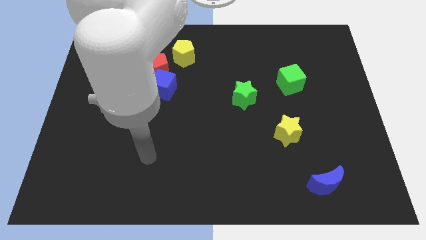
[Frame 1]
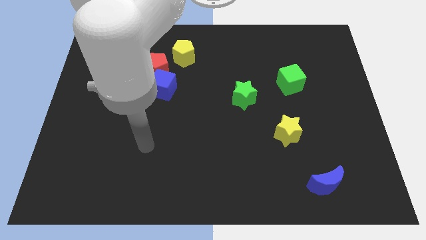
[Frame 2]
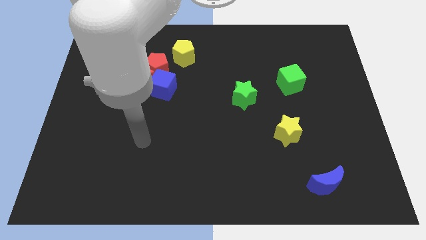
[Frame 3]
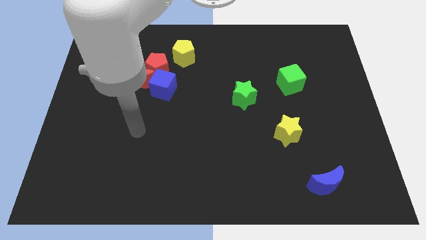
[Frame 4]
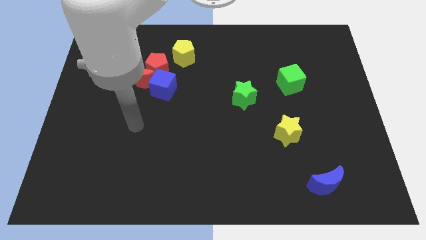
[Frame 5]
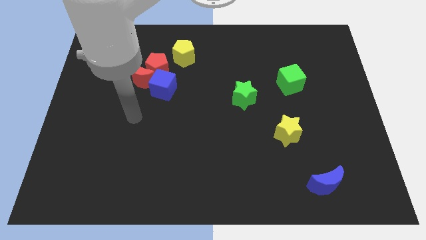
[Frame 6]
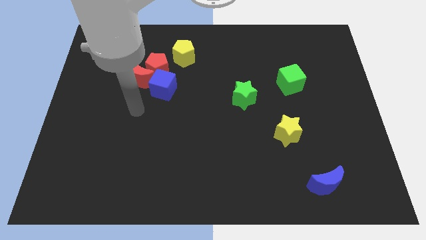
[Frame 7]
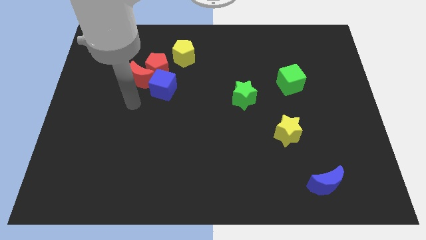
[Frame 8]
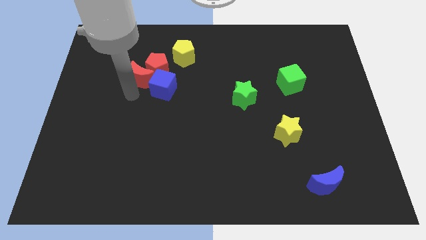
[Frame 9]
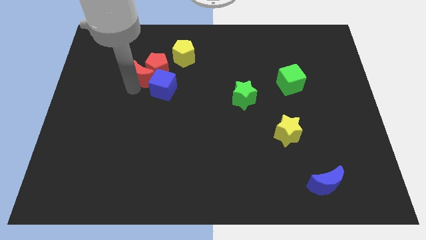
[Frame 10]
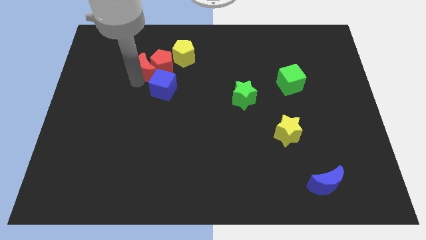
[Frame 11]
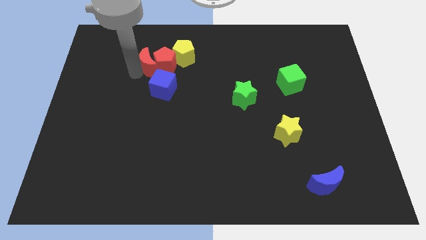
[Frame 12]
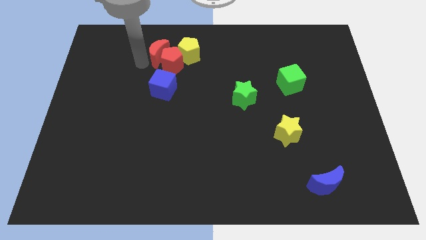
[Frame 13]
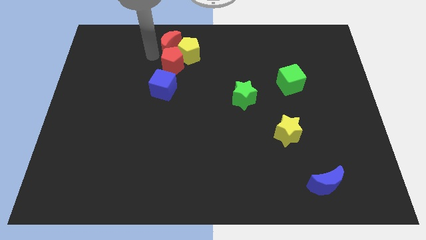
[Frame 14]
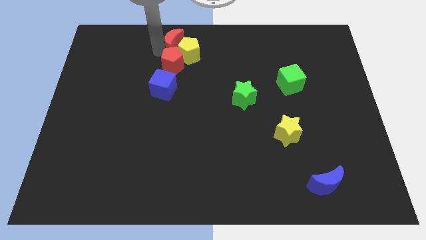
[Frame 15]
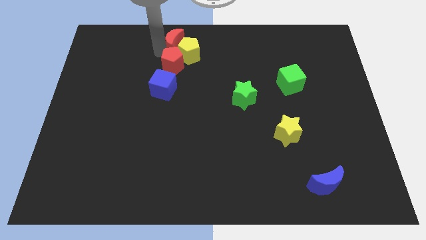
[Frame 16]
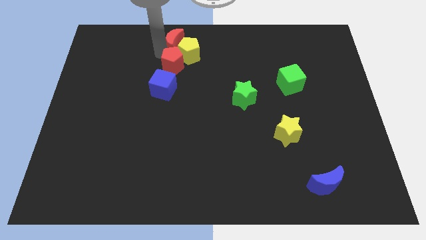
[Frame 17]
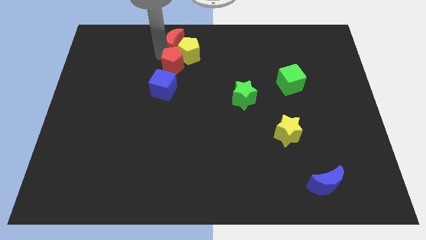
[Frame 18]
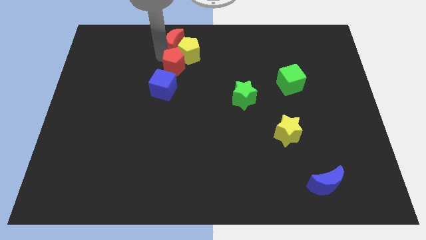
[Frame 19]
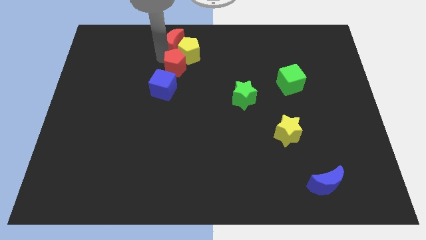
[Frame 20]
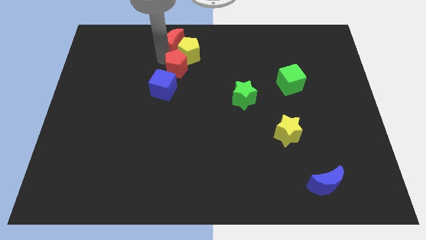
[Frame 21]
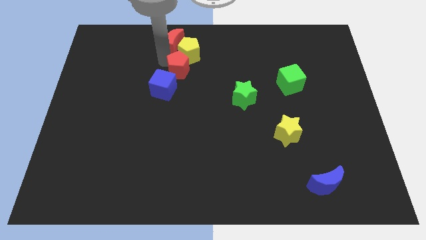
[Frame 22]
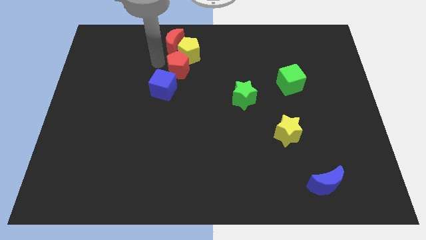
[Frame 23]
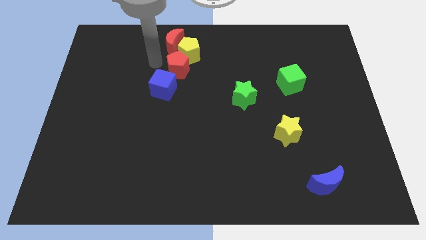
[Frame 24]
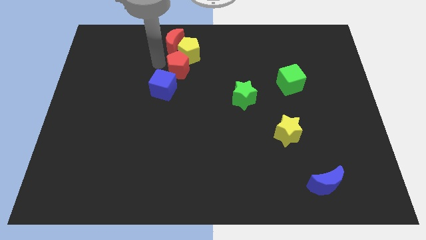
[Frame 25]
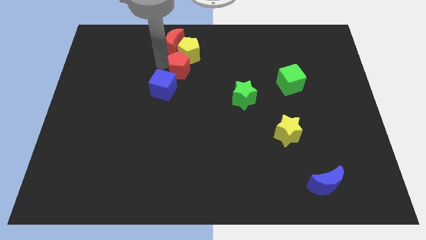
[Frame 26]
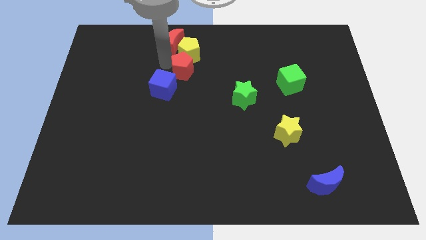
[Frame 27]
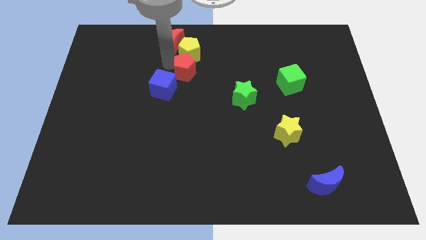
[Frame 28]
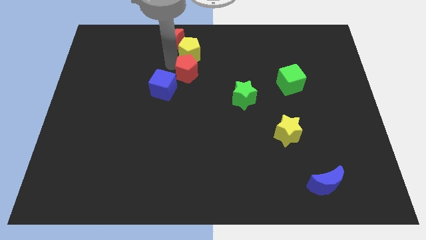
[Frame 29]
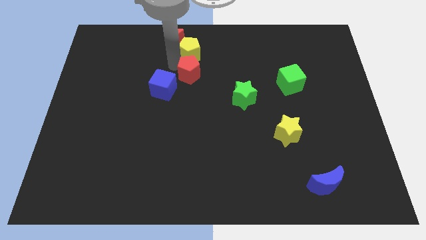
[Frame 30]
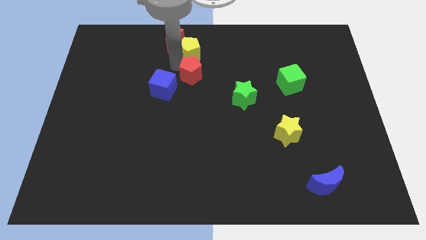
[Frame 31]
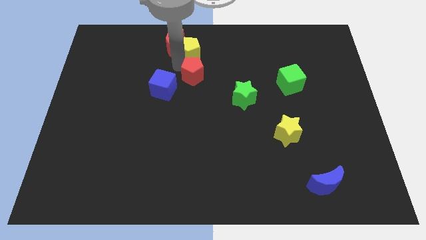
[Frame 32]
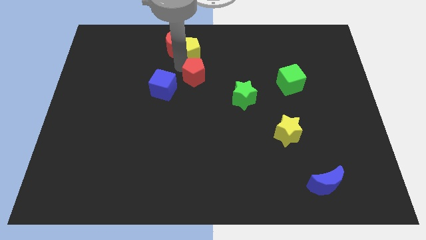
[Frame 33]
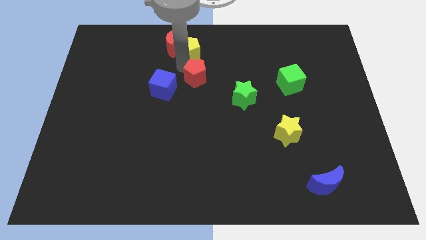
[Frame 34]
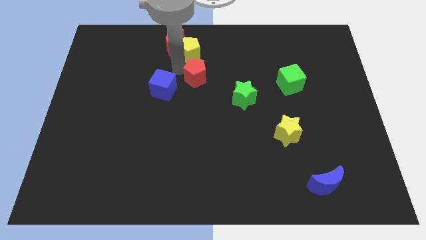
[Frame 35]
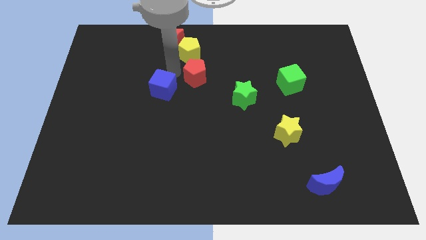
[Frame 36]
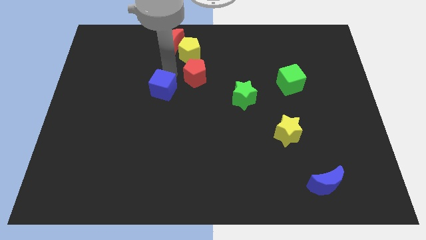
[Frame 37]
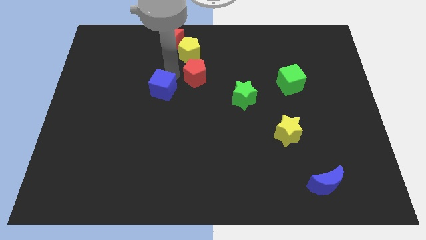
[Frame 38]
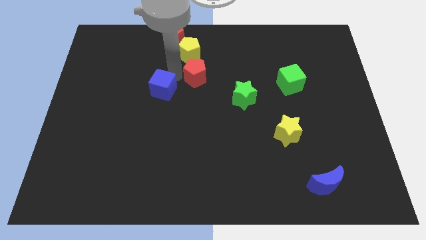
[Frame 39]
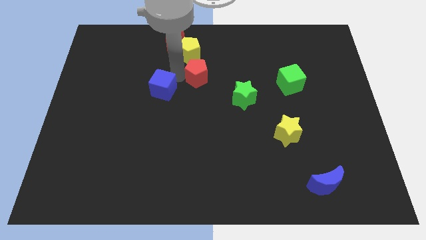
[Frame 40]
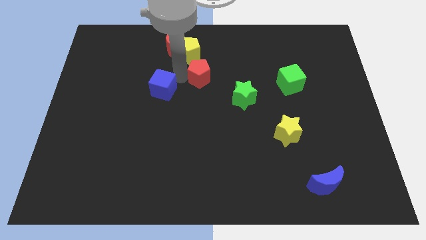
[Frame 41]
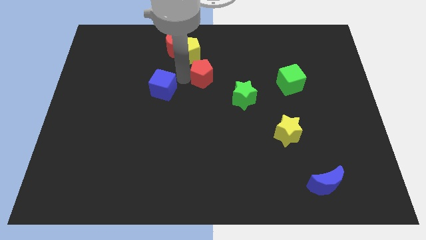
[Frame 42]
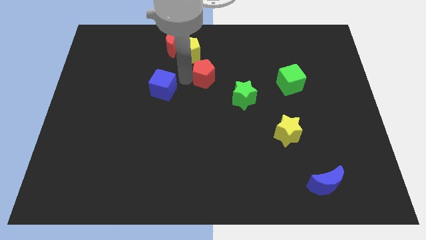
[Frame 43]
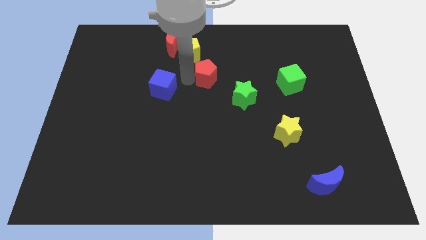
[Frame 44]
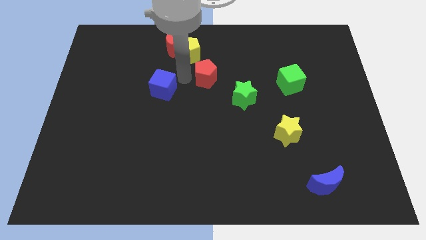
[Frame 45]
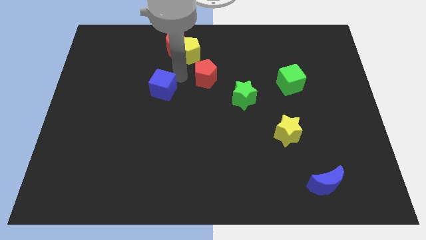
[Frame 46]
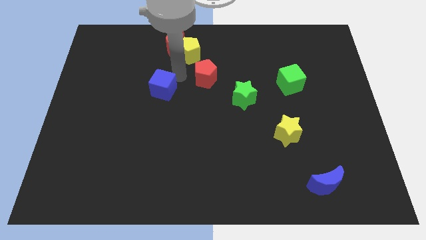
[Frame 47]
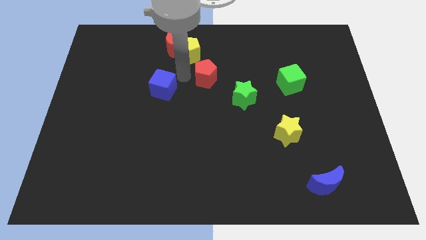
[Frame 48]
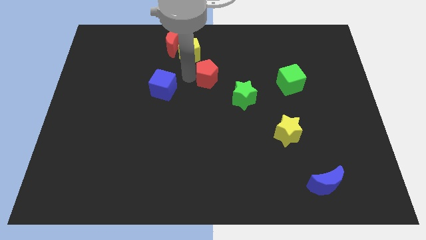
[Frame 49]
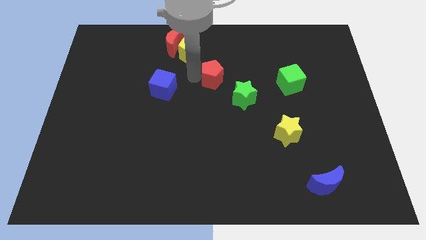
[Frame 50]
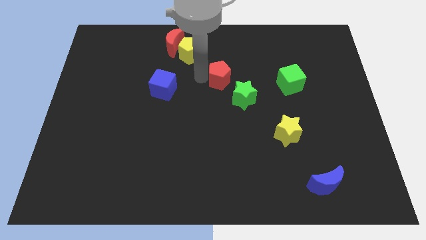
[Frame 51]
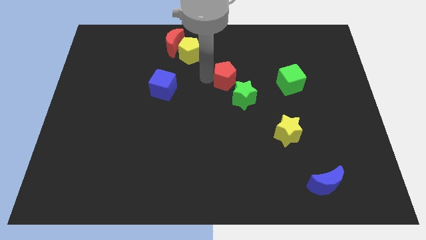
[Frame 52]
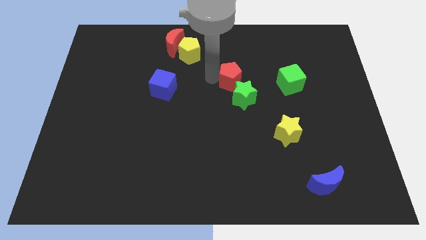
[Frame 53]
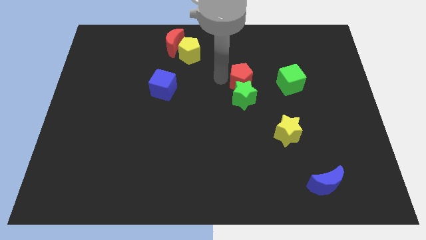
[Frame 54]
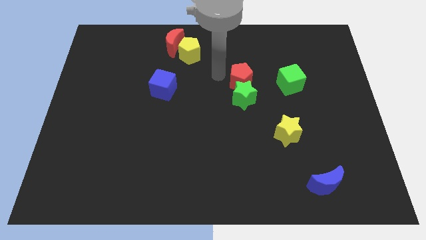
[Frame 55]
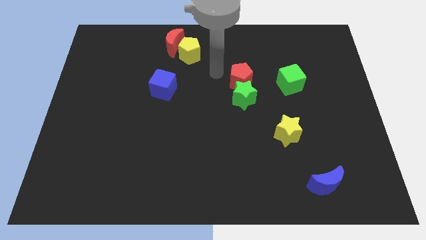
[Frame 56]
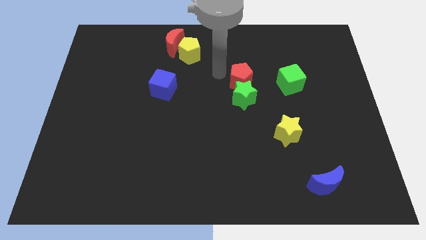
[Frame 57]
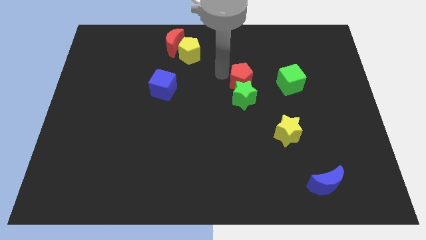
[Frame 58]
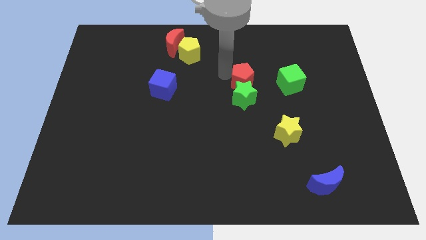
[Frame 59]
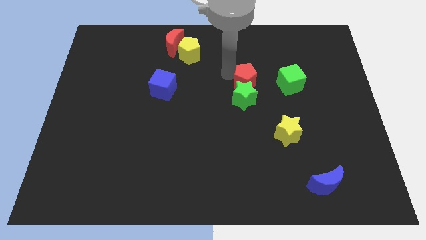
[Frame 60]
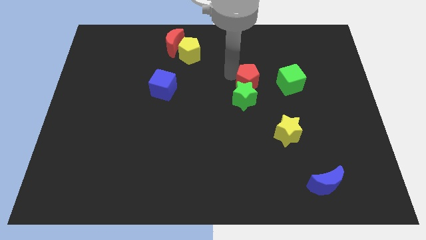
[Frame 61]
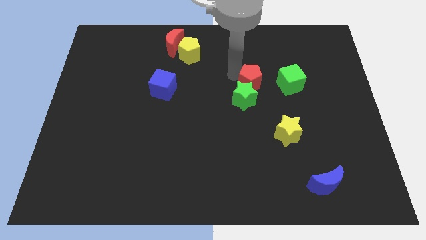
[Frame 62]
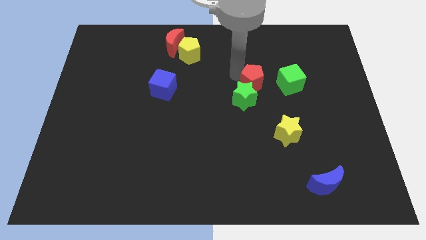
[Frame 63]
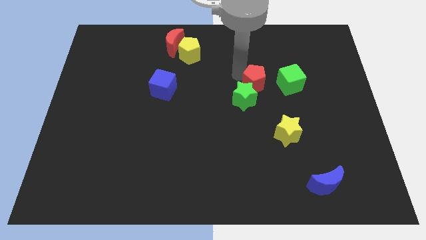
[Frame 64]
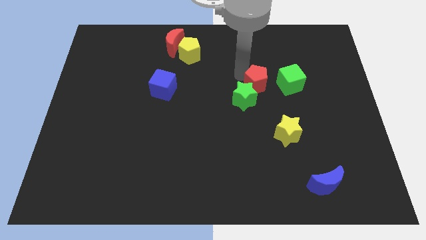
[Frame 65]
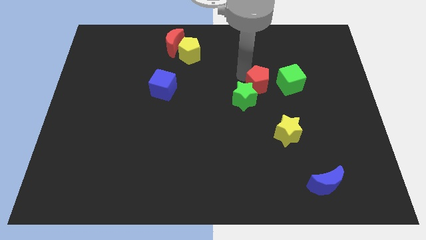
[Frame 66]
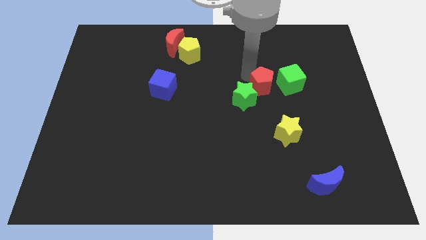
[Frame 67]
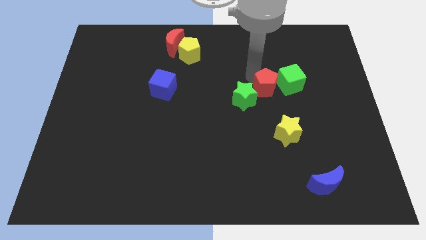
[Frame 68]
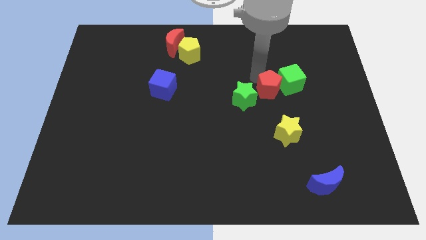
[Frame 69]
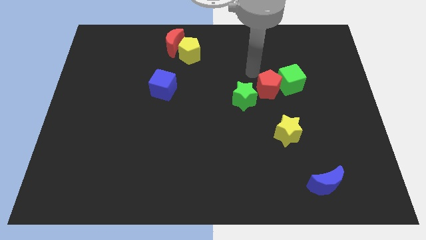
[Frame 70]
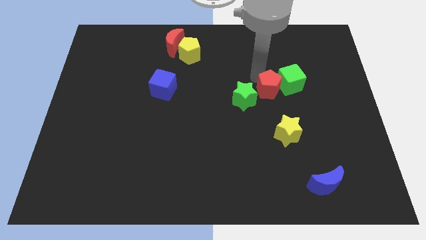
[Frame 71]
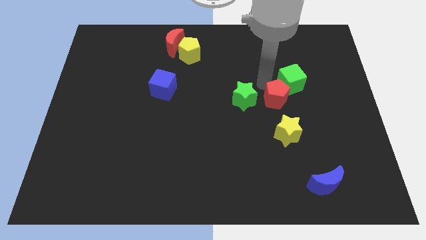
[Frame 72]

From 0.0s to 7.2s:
put the red pentagon to the bottom of the green cube
